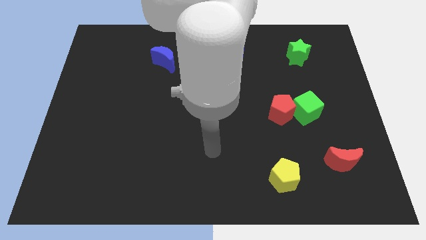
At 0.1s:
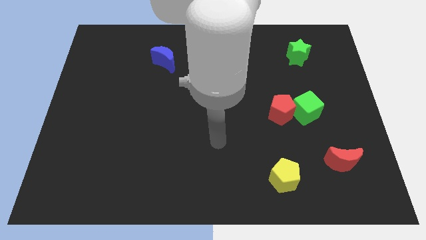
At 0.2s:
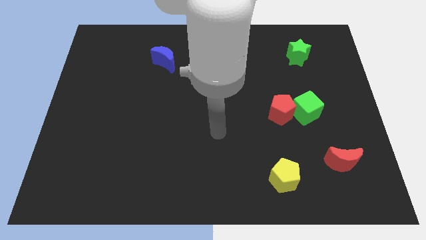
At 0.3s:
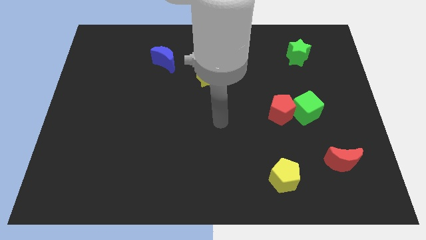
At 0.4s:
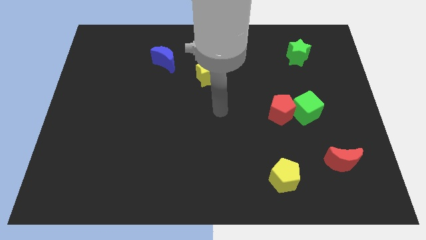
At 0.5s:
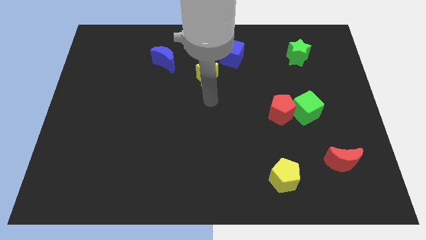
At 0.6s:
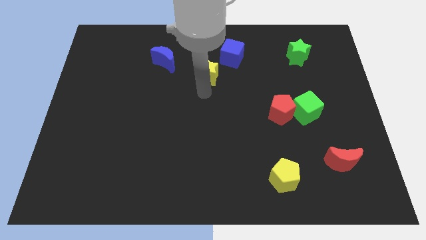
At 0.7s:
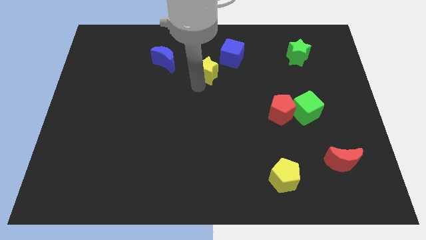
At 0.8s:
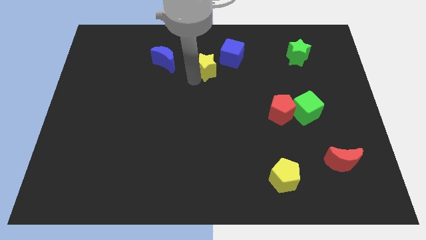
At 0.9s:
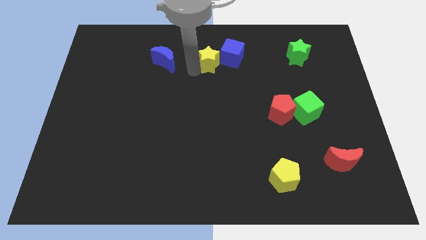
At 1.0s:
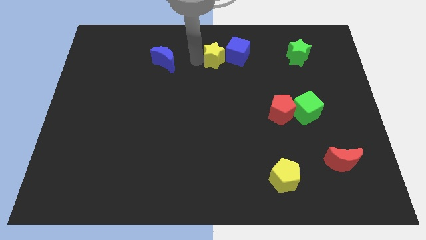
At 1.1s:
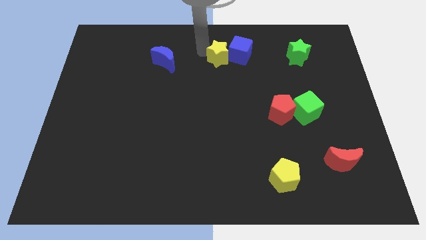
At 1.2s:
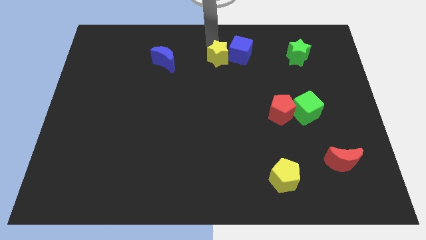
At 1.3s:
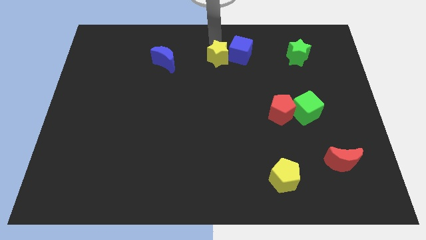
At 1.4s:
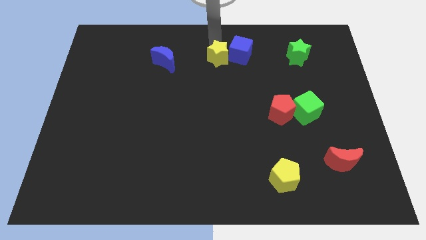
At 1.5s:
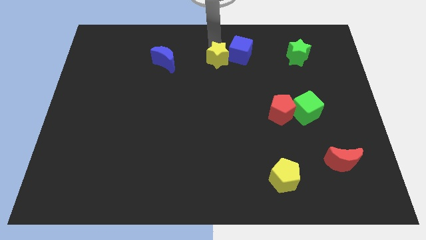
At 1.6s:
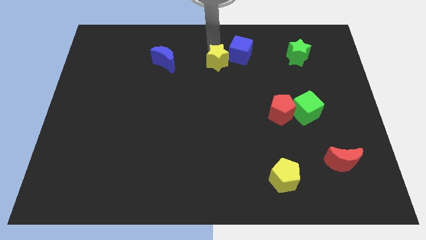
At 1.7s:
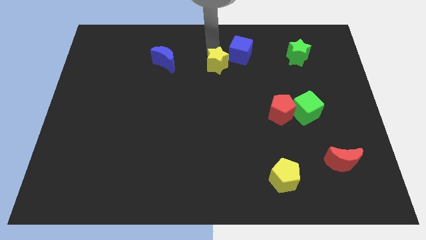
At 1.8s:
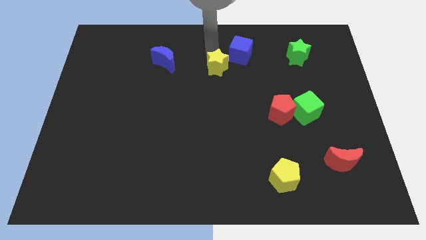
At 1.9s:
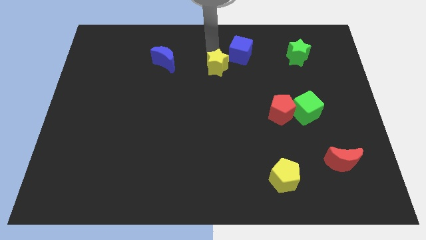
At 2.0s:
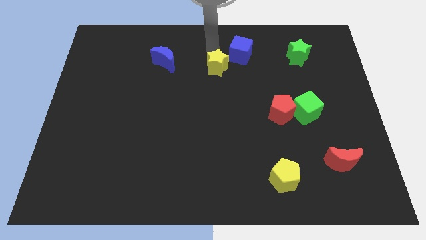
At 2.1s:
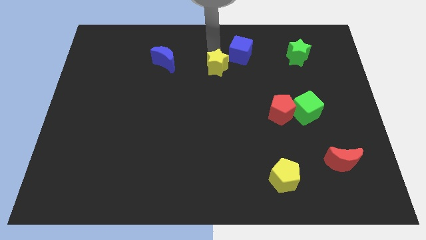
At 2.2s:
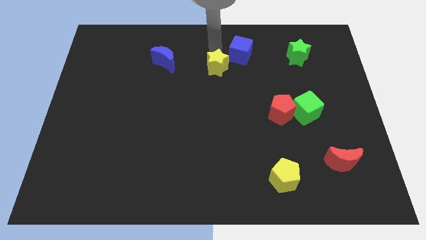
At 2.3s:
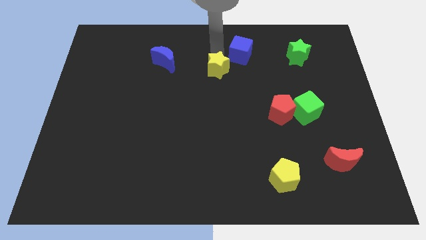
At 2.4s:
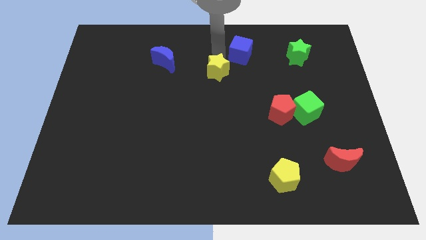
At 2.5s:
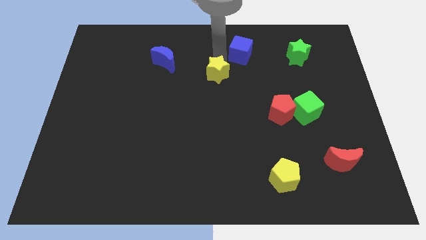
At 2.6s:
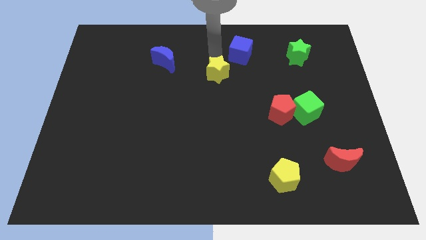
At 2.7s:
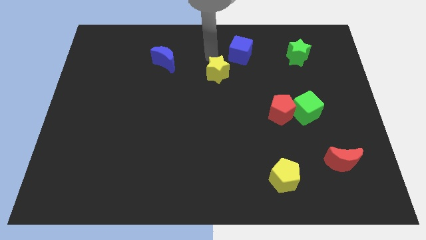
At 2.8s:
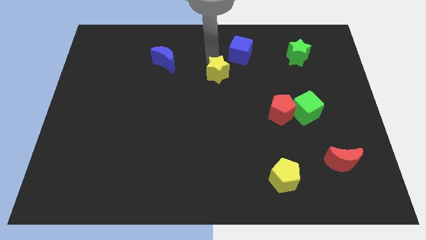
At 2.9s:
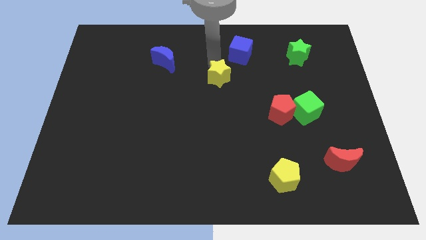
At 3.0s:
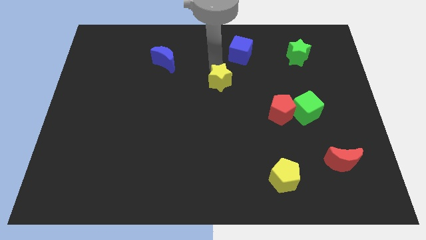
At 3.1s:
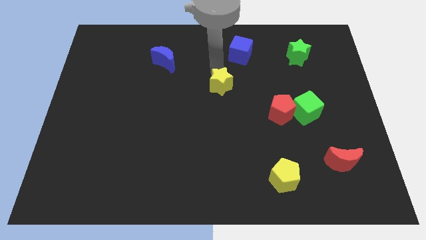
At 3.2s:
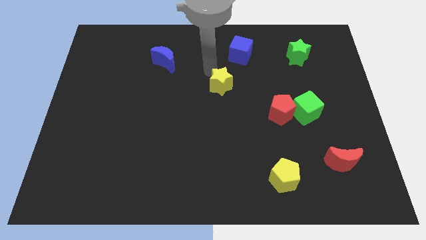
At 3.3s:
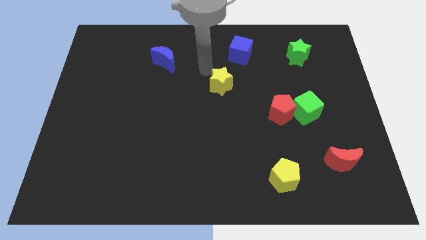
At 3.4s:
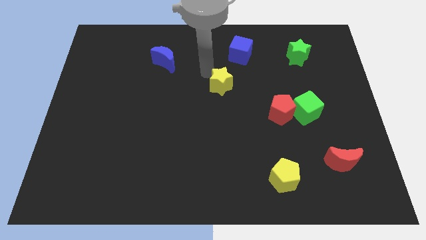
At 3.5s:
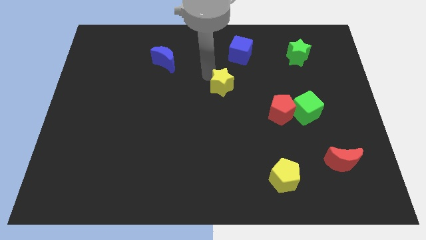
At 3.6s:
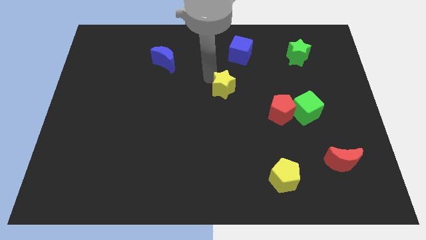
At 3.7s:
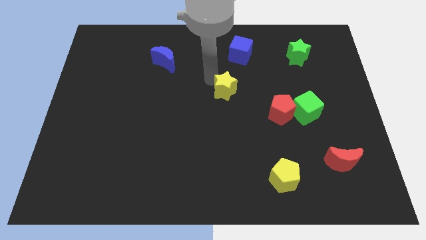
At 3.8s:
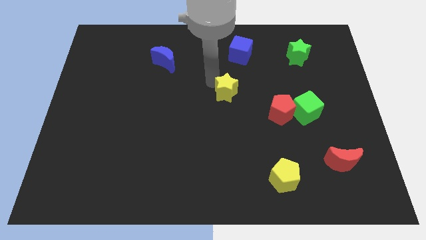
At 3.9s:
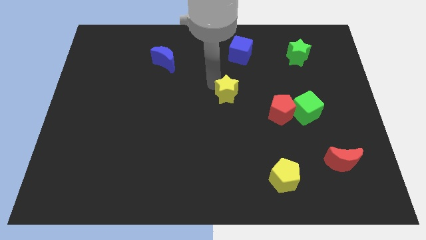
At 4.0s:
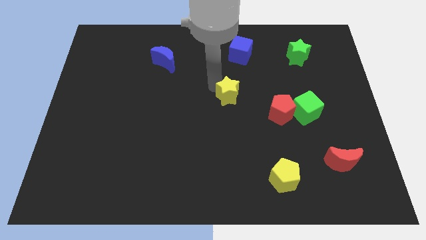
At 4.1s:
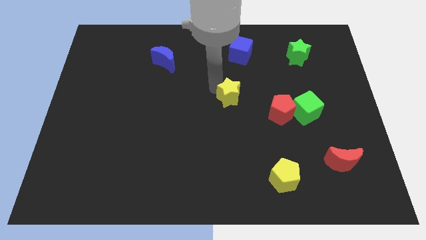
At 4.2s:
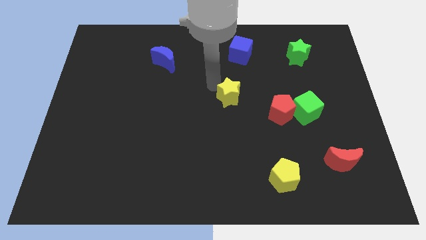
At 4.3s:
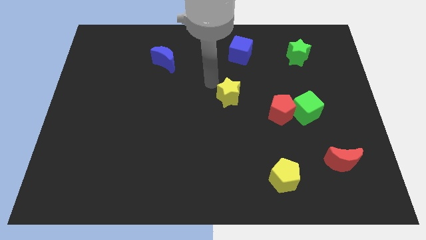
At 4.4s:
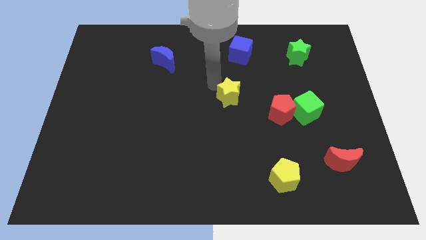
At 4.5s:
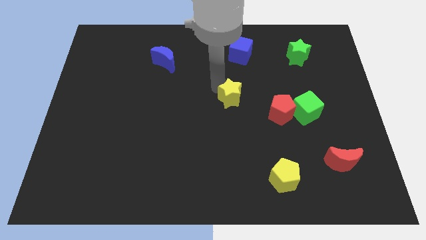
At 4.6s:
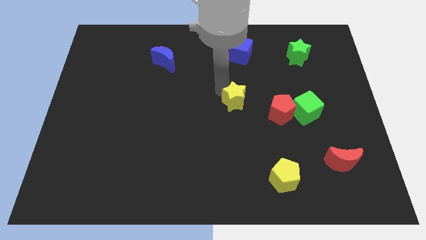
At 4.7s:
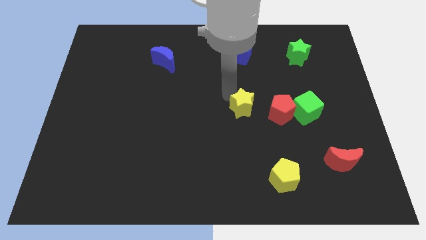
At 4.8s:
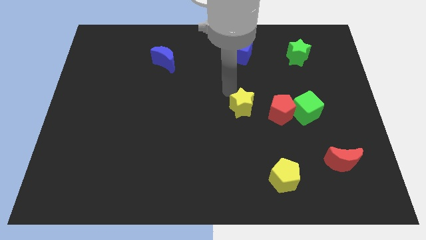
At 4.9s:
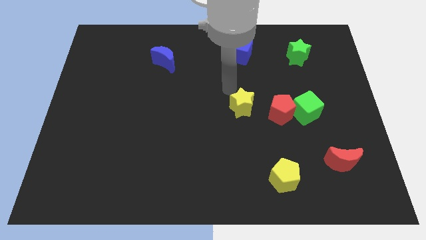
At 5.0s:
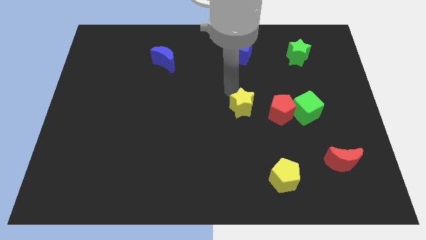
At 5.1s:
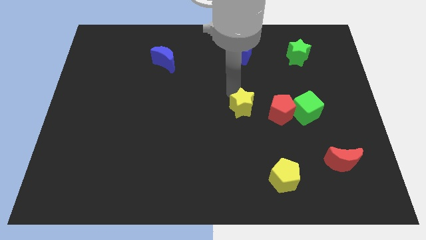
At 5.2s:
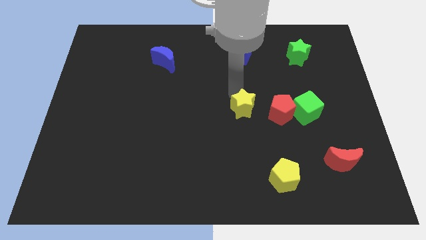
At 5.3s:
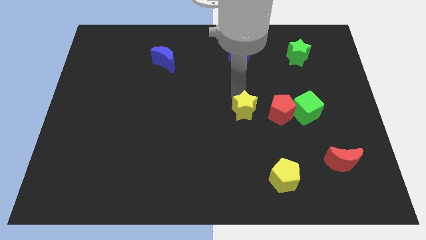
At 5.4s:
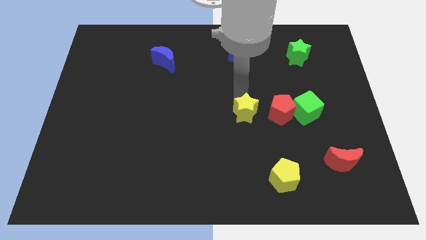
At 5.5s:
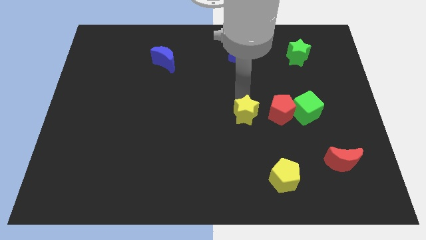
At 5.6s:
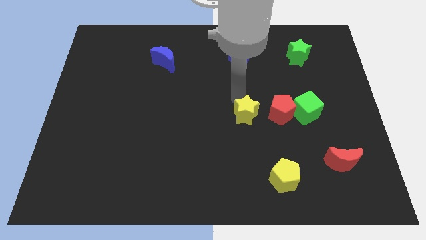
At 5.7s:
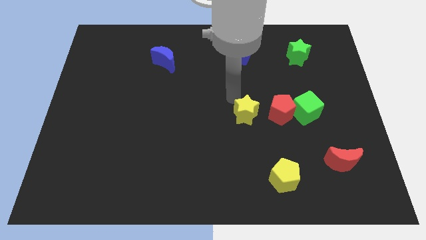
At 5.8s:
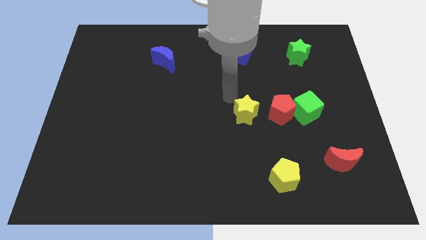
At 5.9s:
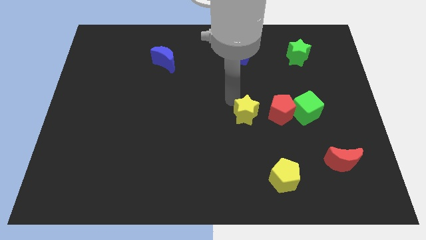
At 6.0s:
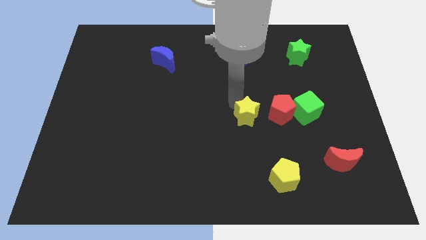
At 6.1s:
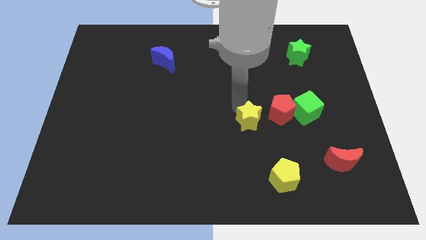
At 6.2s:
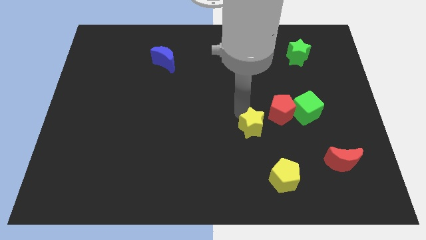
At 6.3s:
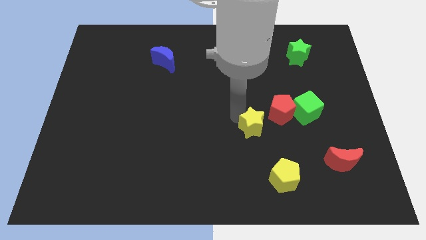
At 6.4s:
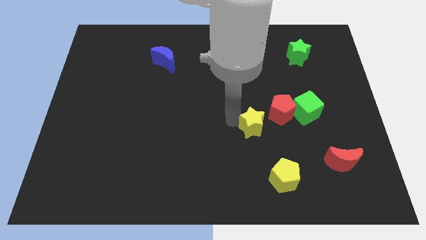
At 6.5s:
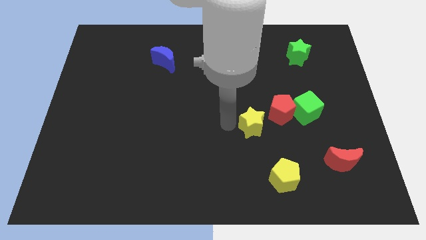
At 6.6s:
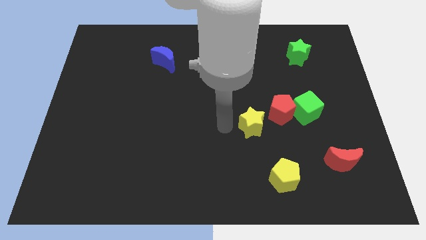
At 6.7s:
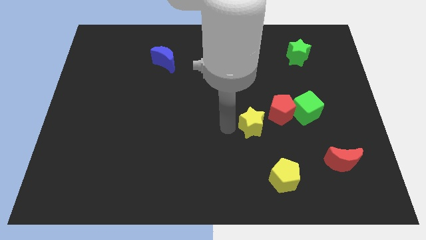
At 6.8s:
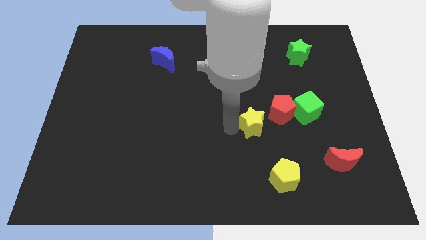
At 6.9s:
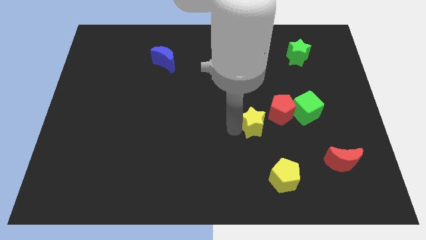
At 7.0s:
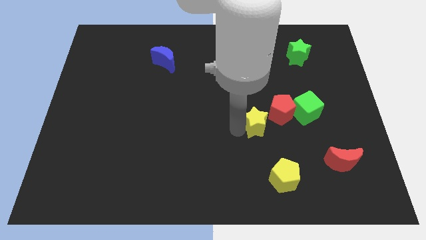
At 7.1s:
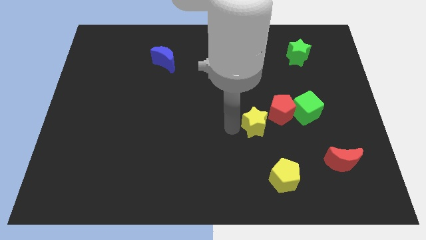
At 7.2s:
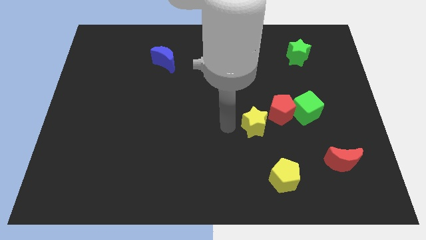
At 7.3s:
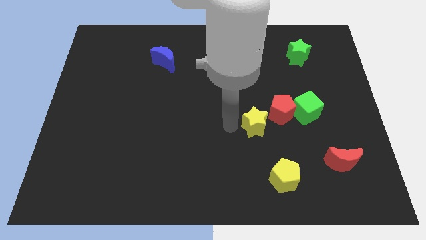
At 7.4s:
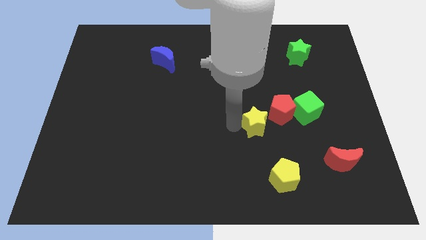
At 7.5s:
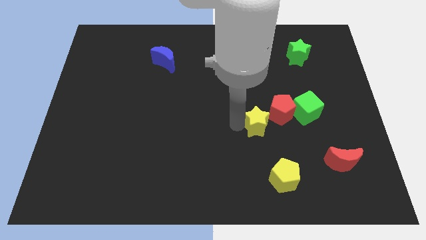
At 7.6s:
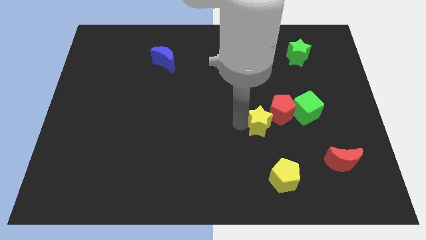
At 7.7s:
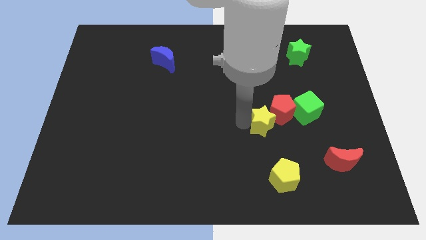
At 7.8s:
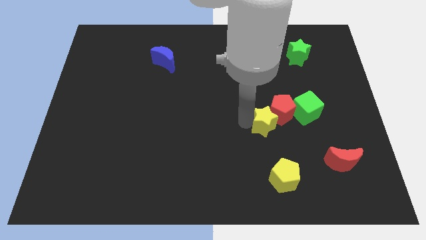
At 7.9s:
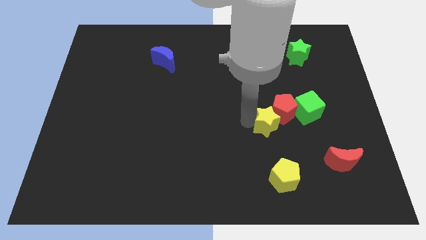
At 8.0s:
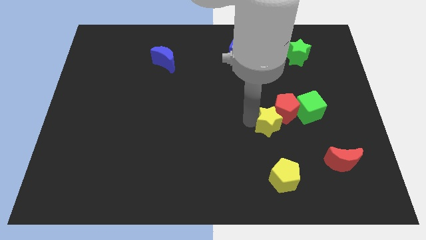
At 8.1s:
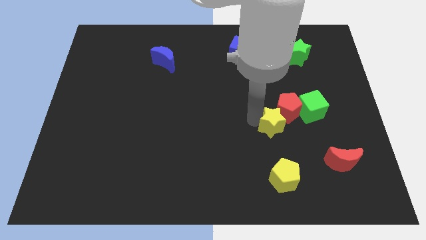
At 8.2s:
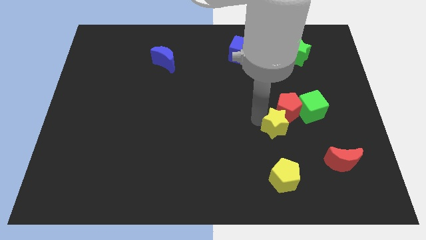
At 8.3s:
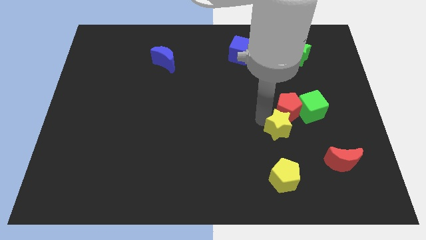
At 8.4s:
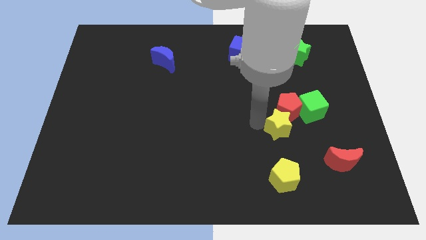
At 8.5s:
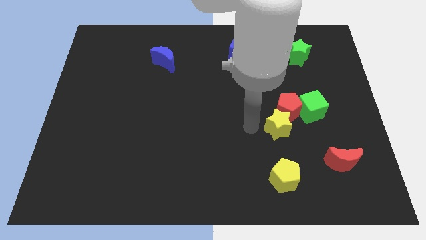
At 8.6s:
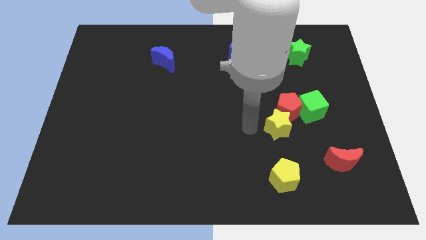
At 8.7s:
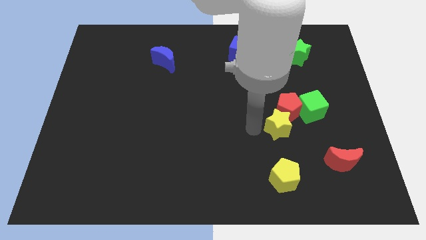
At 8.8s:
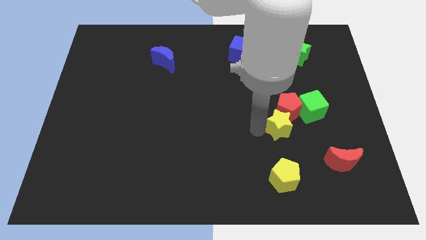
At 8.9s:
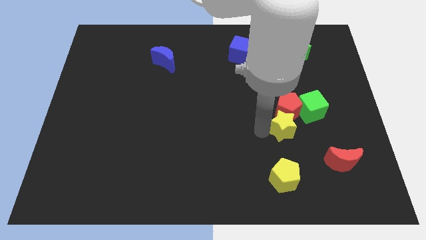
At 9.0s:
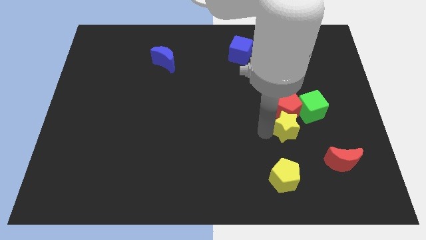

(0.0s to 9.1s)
slide the yellow star diagonally down and to the right of the red pentagon
